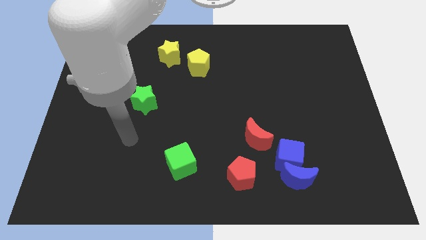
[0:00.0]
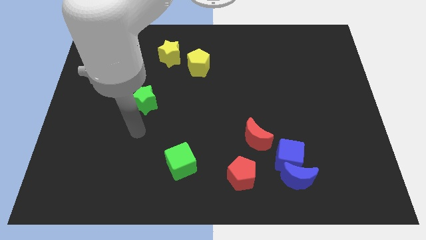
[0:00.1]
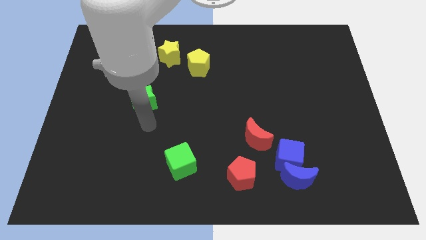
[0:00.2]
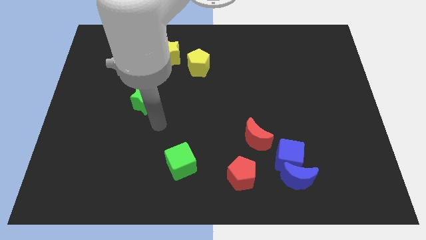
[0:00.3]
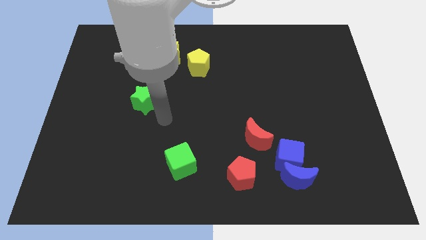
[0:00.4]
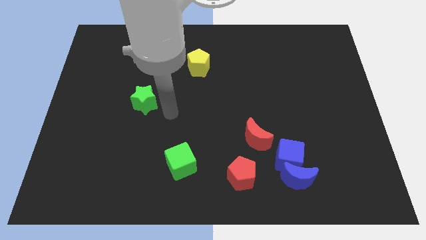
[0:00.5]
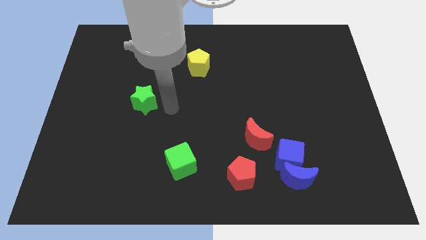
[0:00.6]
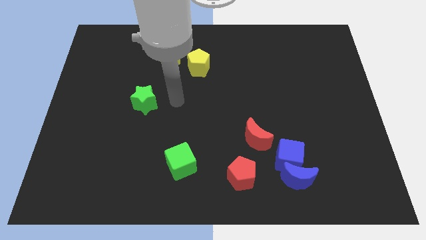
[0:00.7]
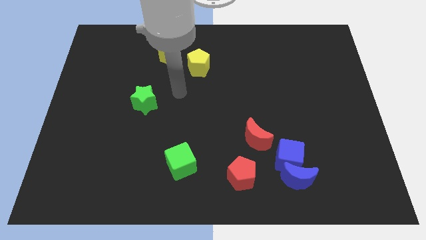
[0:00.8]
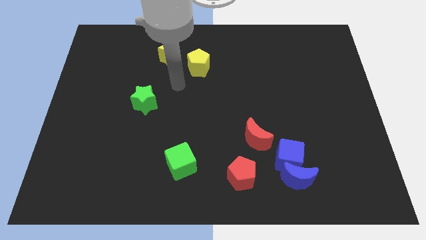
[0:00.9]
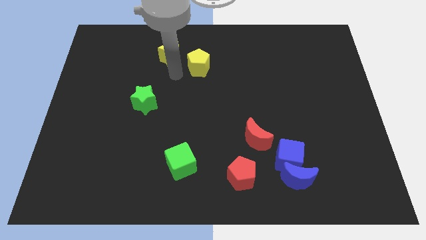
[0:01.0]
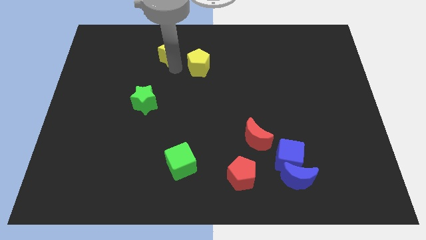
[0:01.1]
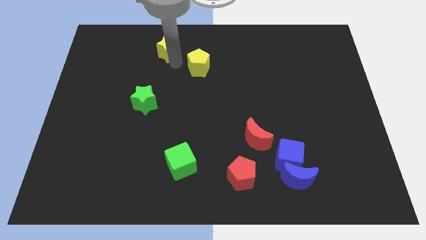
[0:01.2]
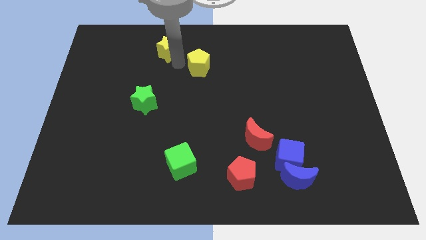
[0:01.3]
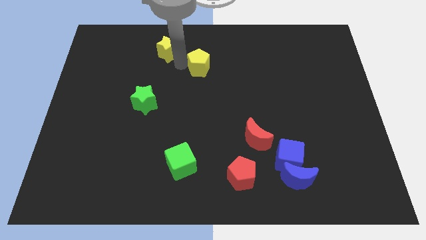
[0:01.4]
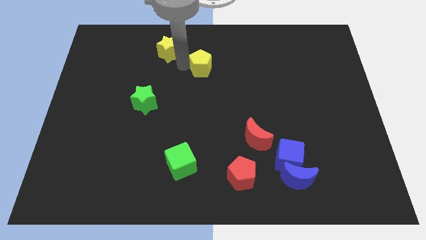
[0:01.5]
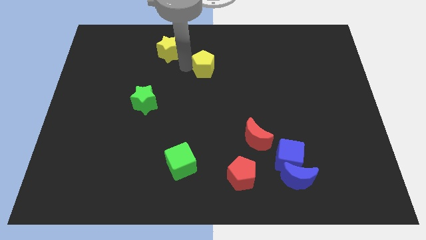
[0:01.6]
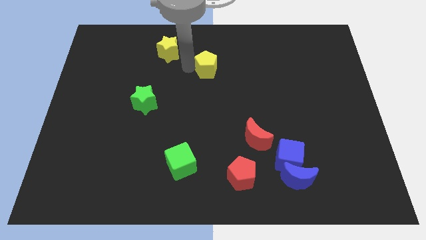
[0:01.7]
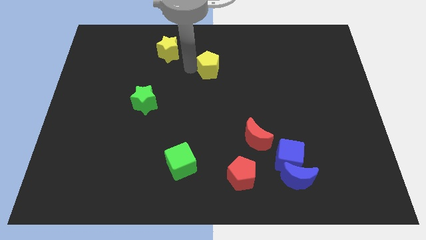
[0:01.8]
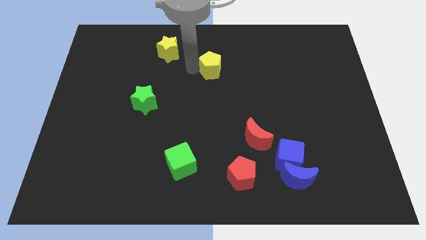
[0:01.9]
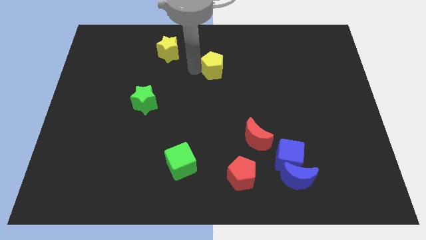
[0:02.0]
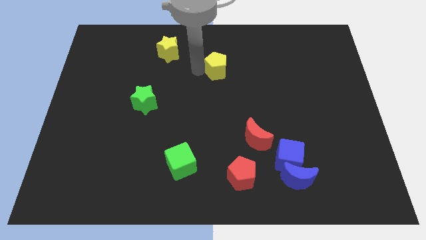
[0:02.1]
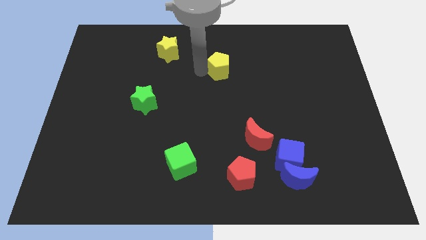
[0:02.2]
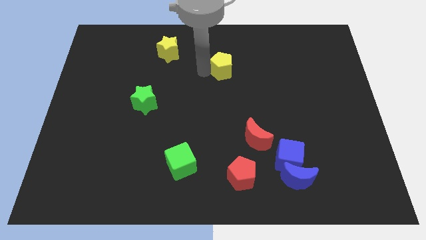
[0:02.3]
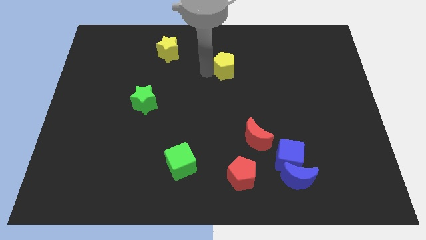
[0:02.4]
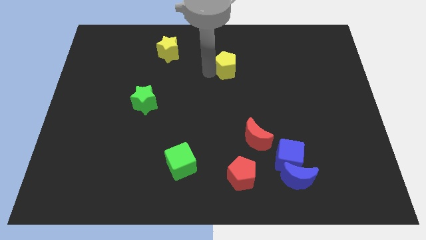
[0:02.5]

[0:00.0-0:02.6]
move the yellow pentagon a little bit to the right

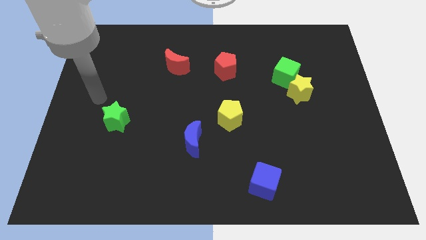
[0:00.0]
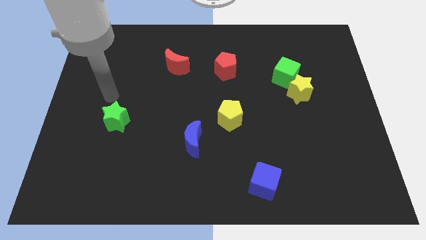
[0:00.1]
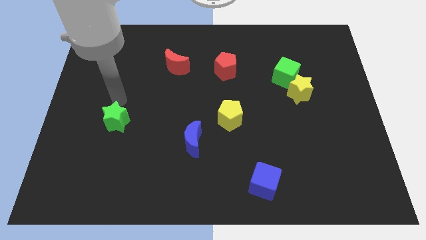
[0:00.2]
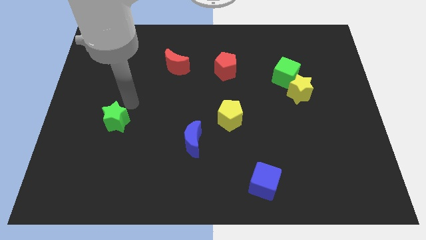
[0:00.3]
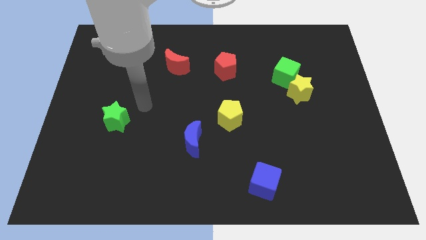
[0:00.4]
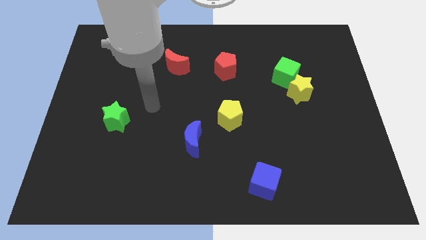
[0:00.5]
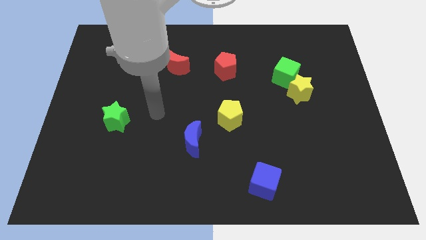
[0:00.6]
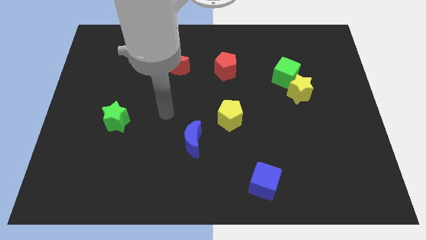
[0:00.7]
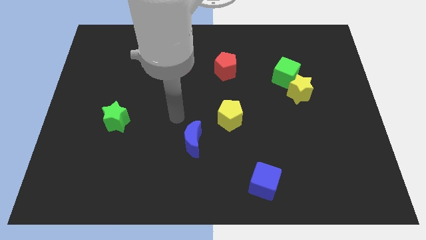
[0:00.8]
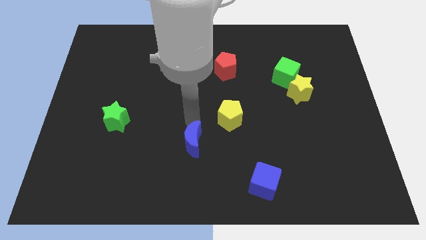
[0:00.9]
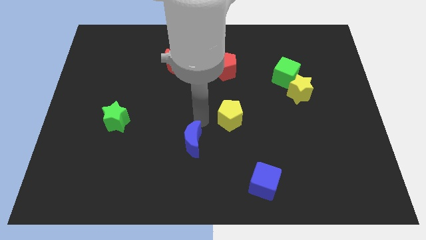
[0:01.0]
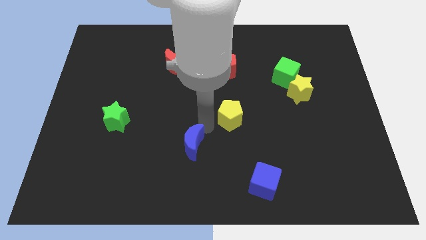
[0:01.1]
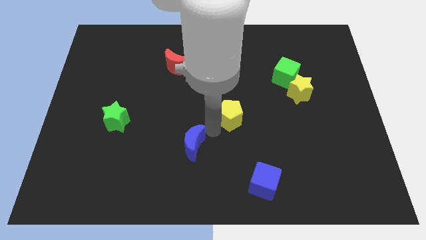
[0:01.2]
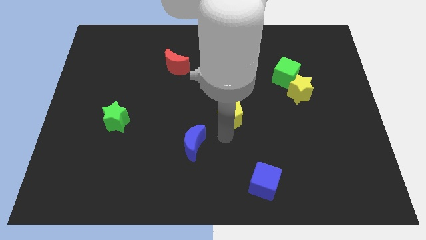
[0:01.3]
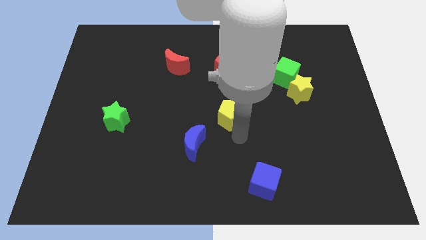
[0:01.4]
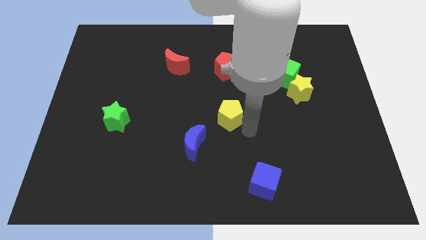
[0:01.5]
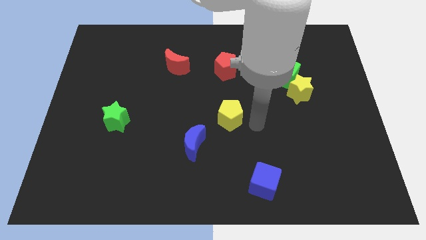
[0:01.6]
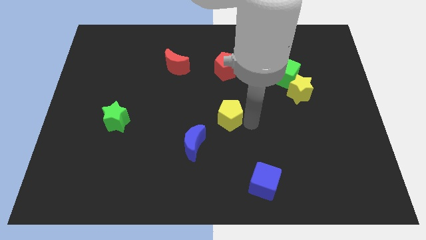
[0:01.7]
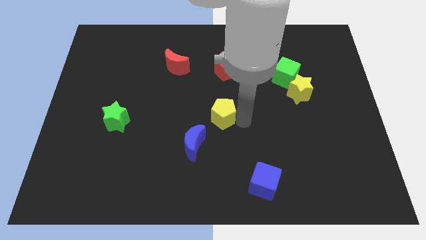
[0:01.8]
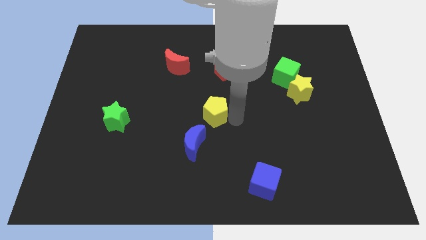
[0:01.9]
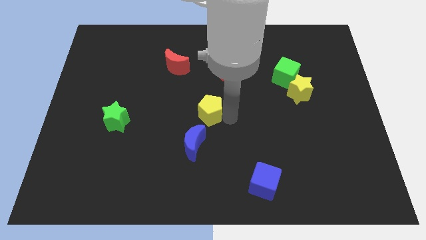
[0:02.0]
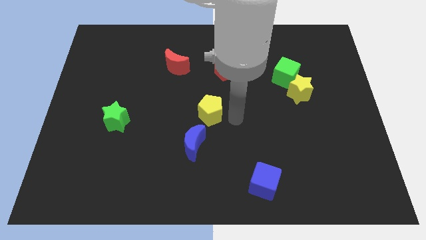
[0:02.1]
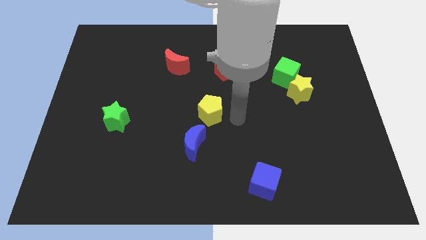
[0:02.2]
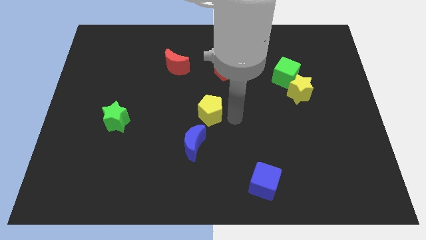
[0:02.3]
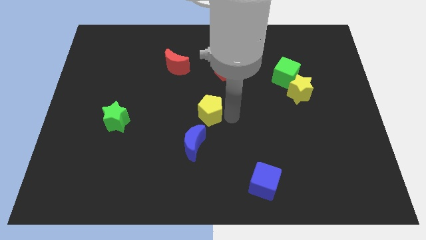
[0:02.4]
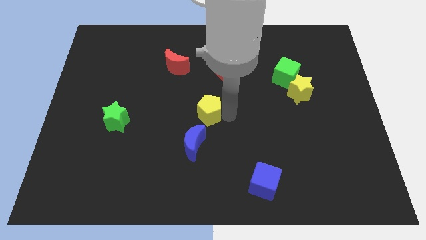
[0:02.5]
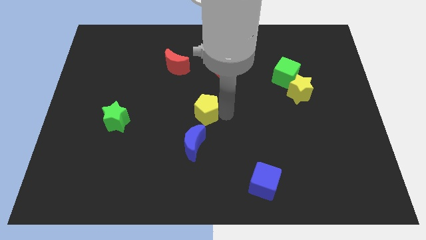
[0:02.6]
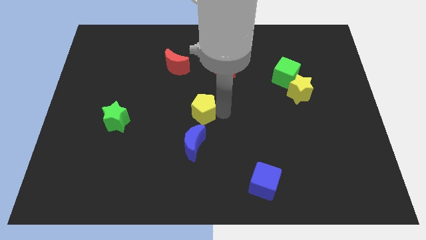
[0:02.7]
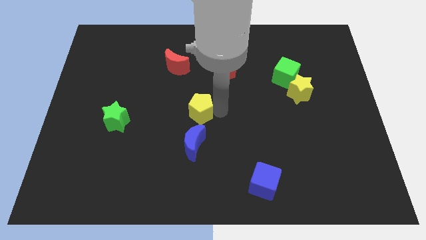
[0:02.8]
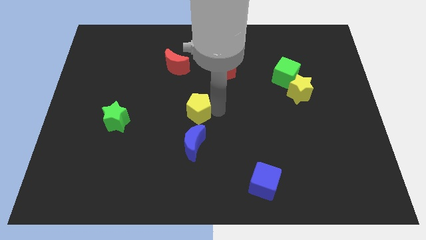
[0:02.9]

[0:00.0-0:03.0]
slightly push the yellow pentagon left

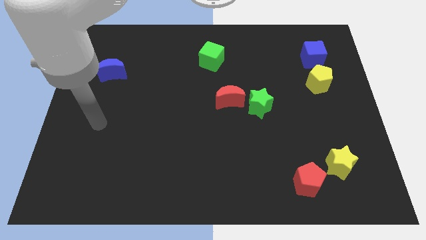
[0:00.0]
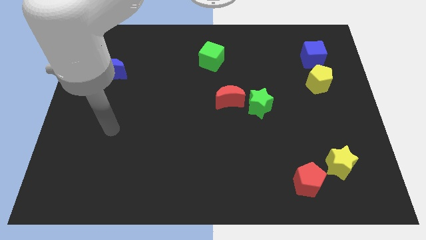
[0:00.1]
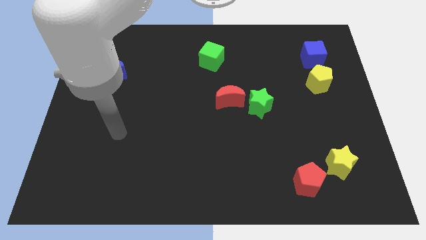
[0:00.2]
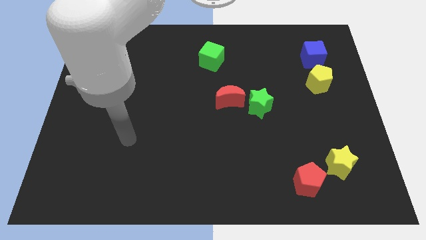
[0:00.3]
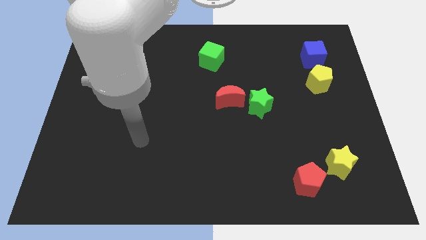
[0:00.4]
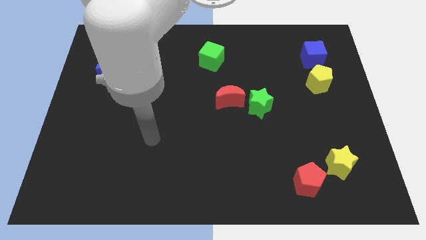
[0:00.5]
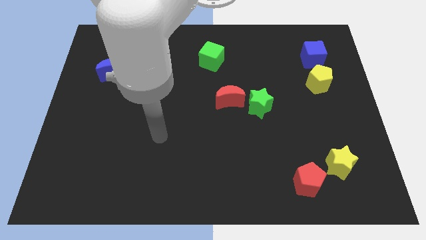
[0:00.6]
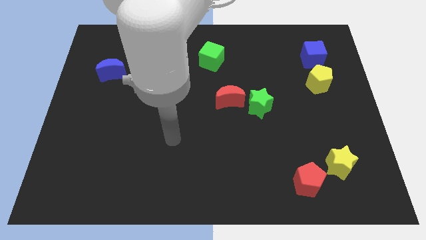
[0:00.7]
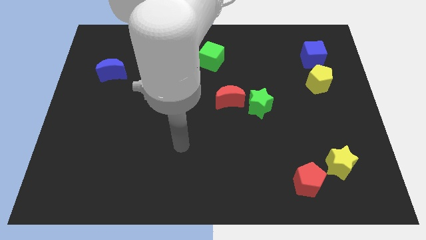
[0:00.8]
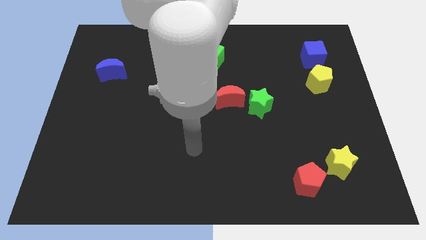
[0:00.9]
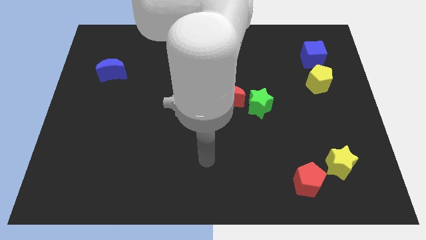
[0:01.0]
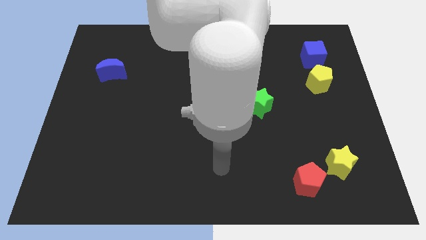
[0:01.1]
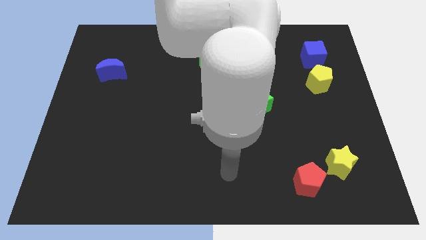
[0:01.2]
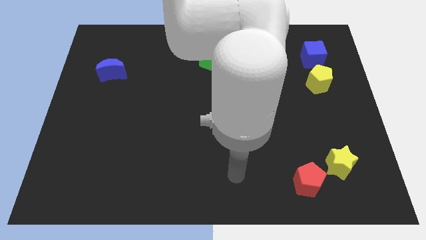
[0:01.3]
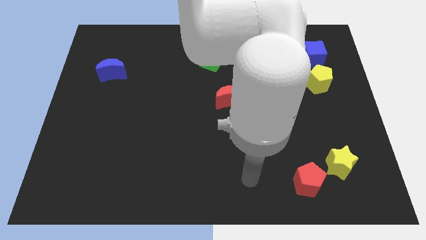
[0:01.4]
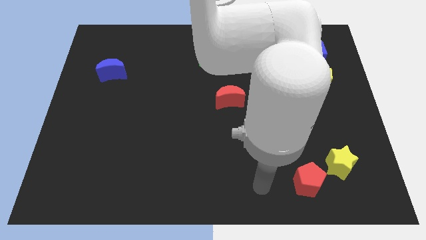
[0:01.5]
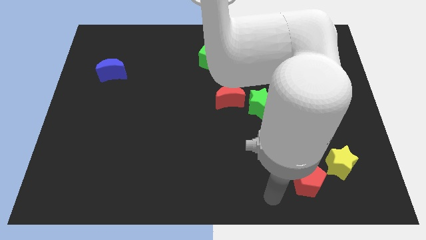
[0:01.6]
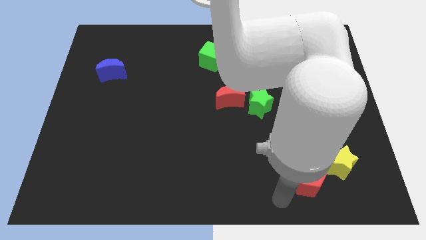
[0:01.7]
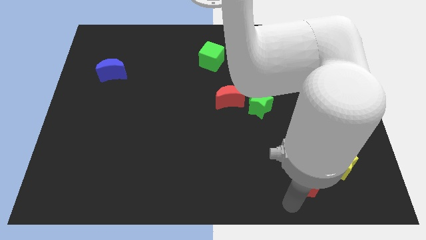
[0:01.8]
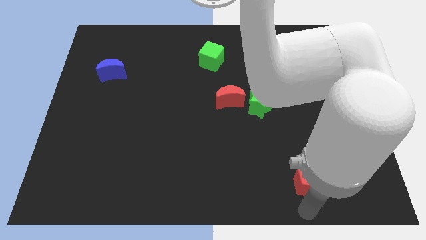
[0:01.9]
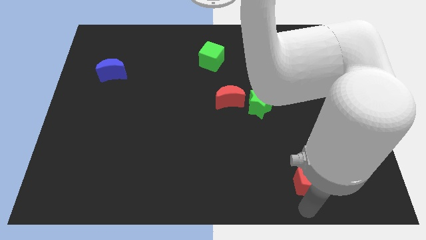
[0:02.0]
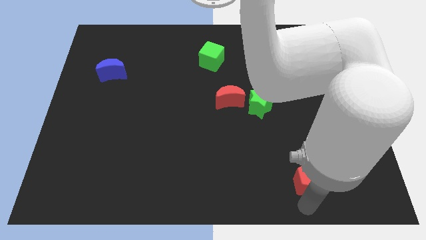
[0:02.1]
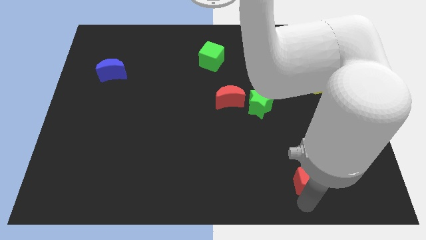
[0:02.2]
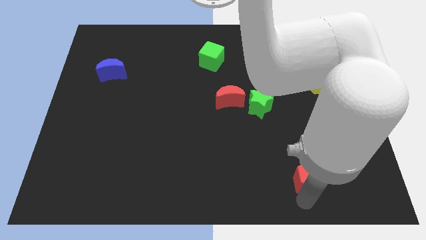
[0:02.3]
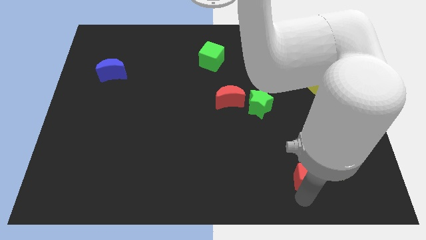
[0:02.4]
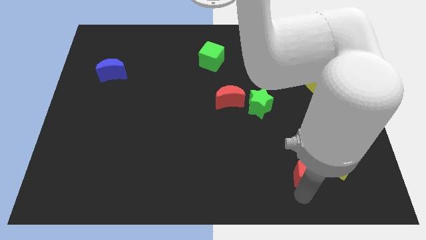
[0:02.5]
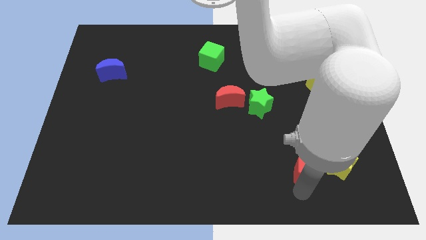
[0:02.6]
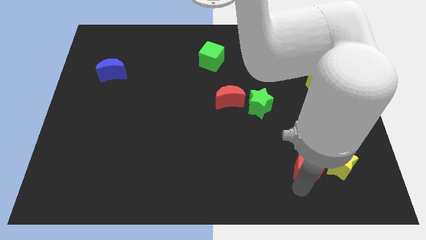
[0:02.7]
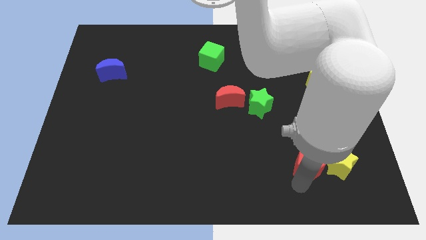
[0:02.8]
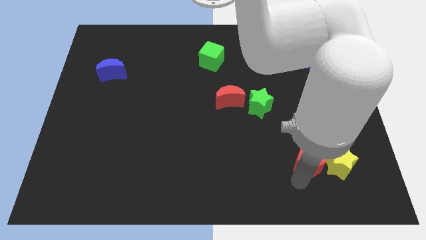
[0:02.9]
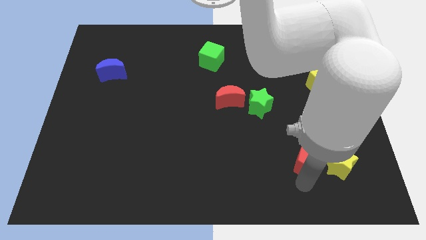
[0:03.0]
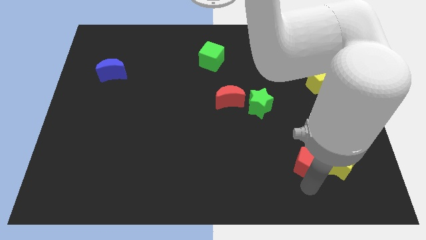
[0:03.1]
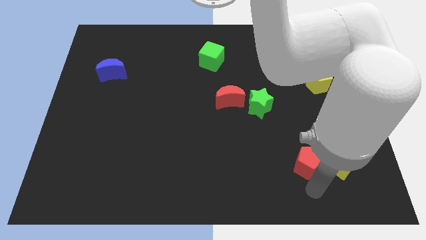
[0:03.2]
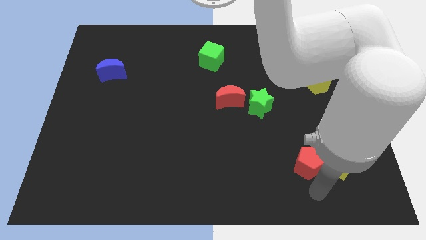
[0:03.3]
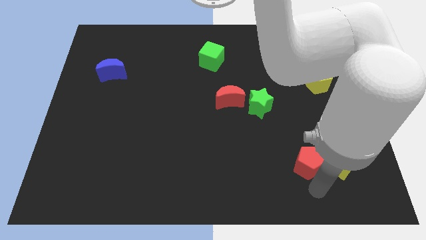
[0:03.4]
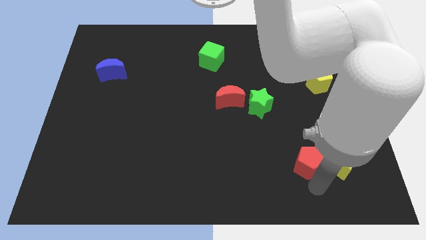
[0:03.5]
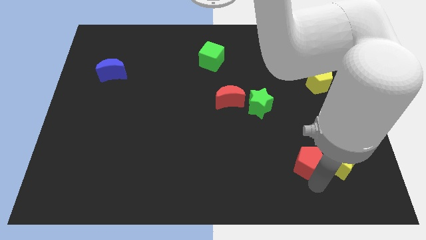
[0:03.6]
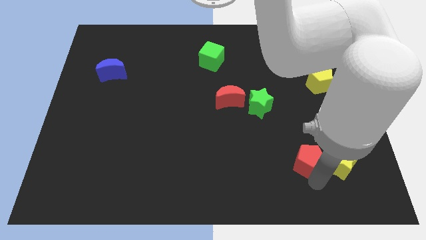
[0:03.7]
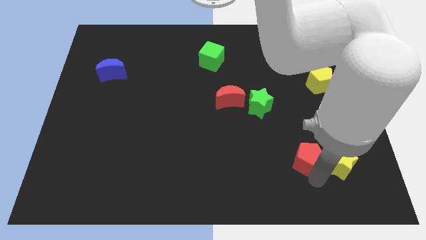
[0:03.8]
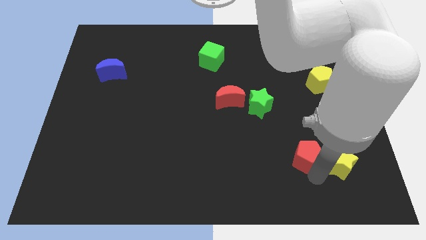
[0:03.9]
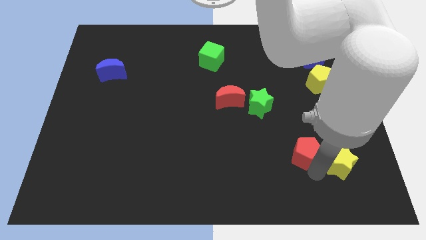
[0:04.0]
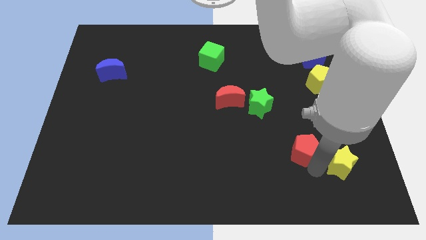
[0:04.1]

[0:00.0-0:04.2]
move the red pentagon a bit upwards
